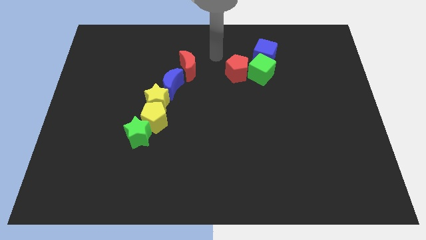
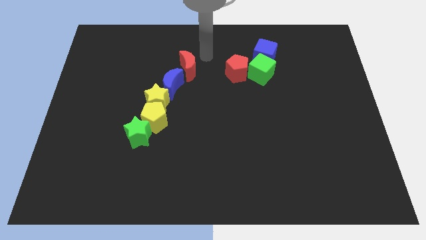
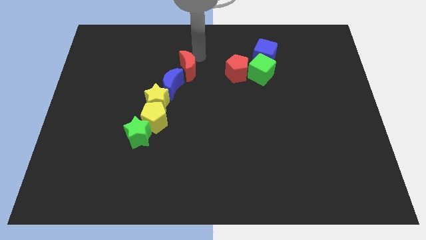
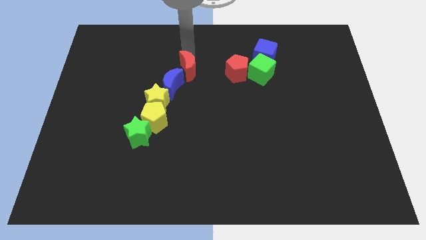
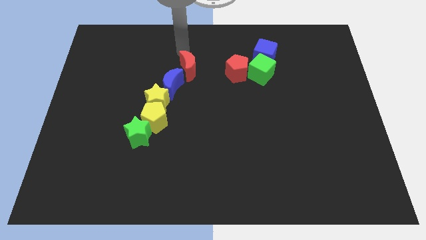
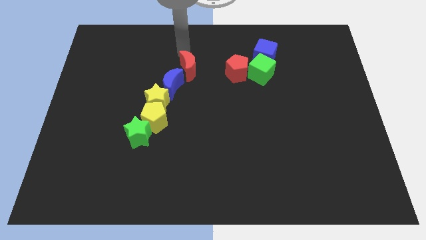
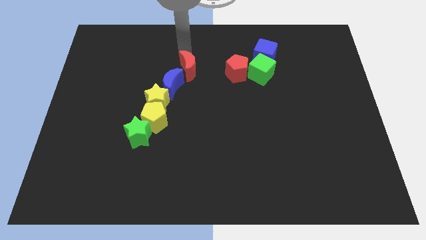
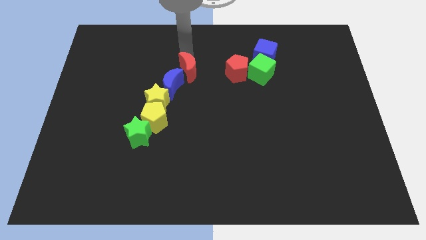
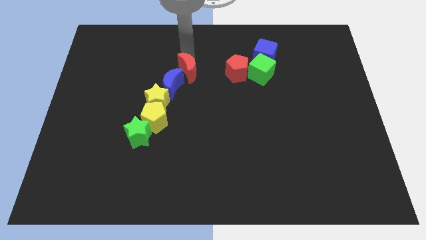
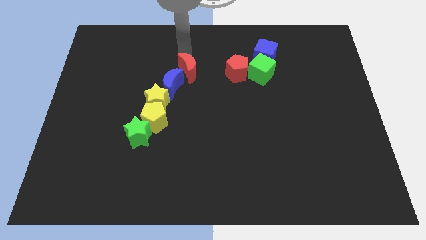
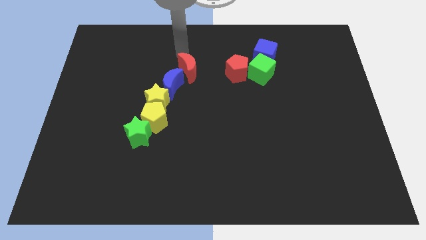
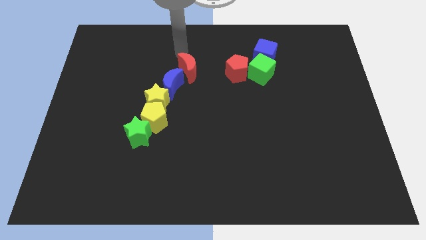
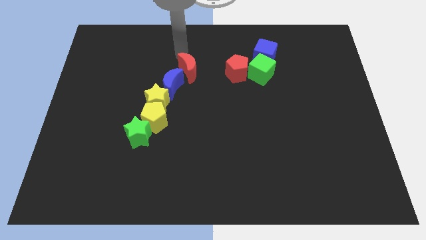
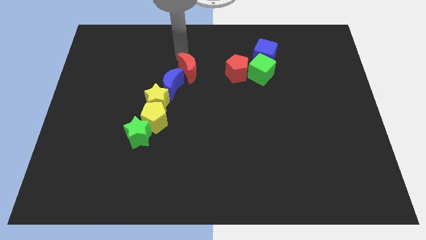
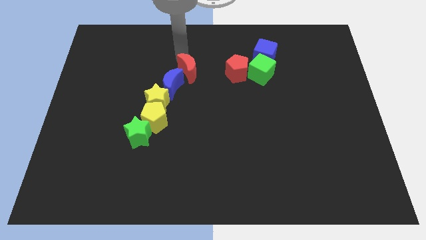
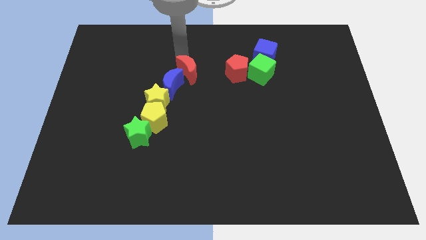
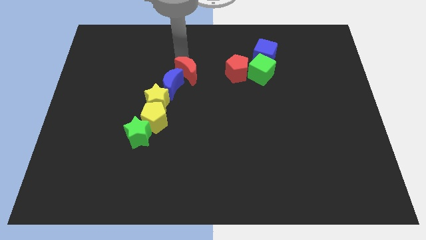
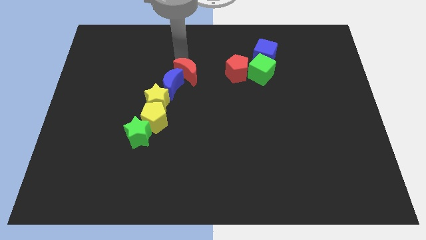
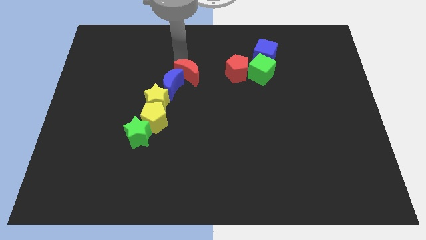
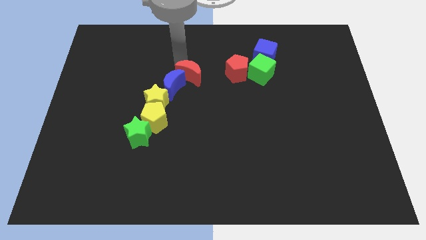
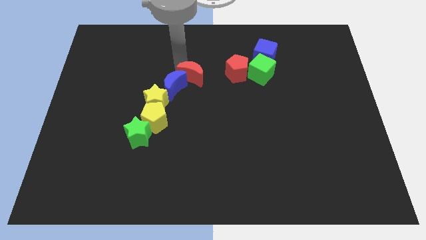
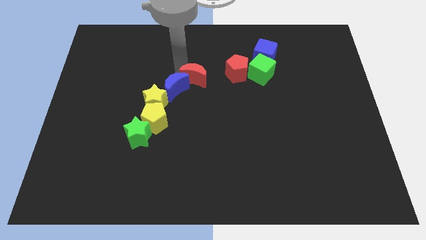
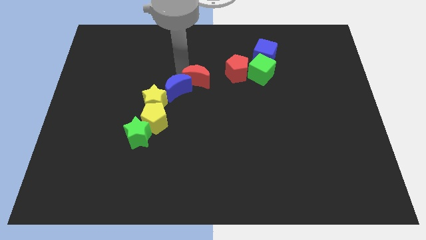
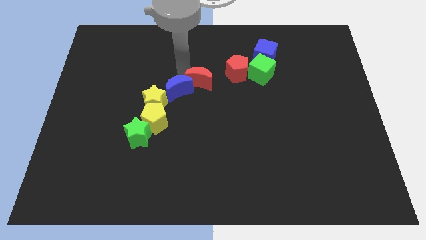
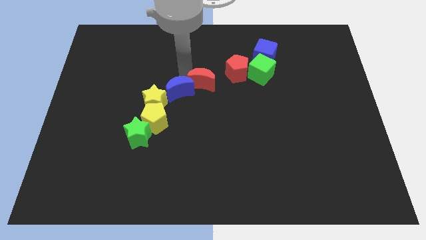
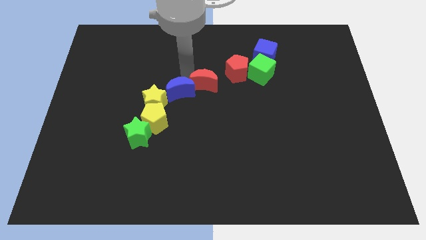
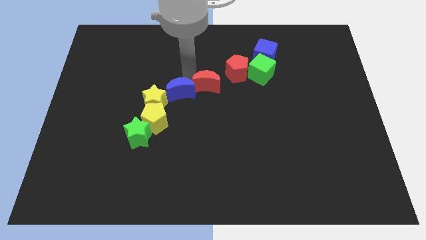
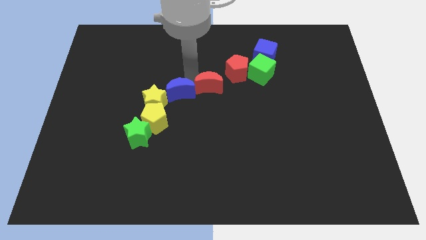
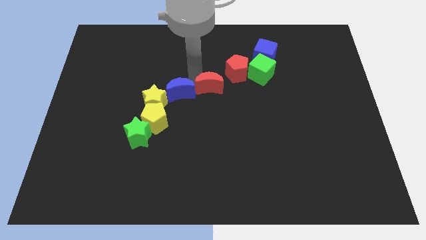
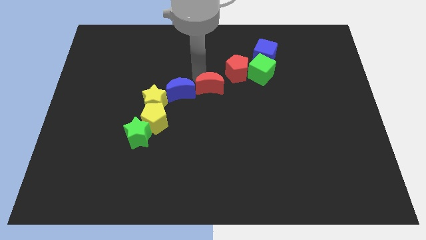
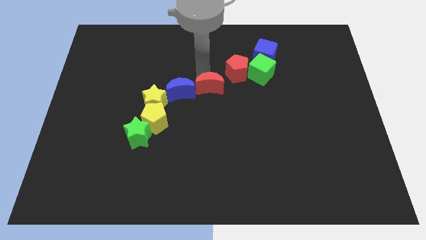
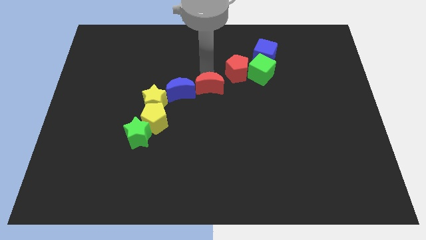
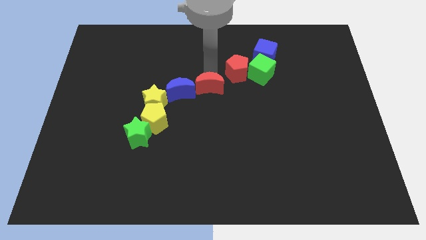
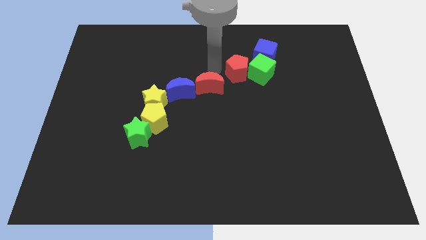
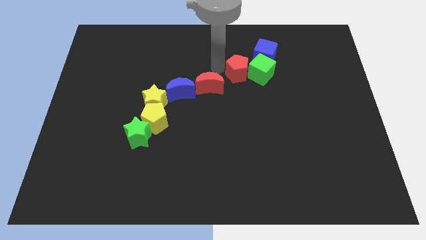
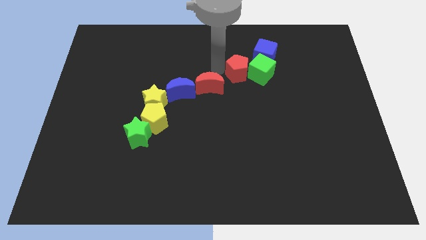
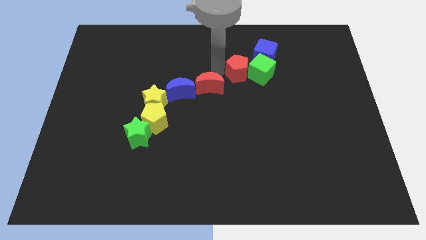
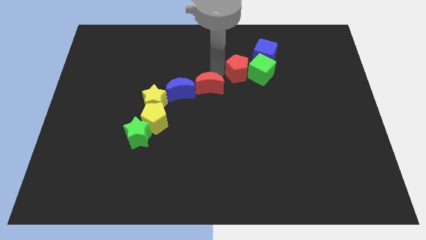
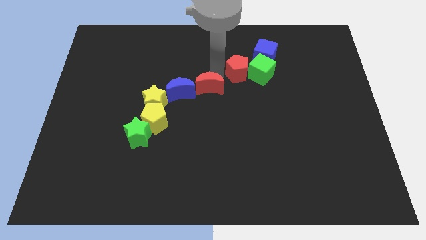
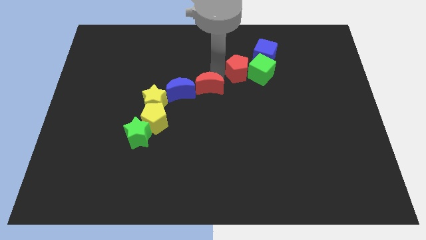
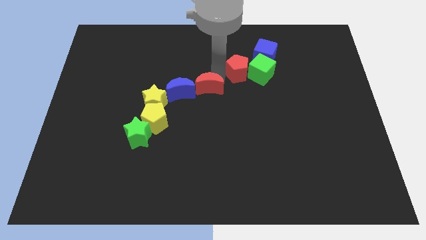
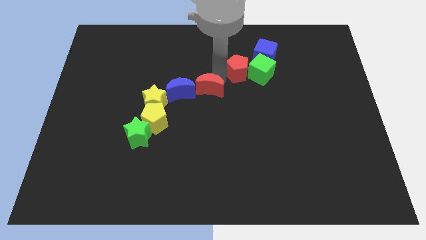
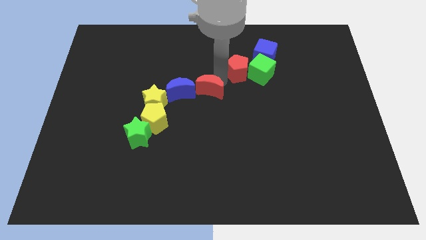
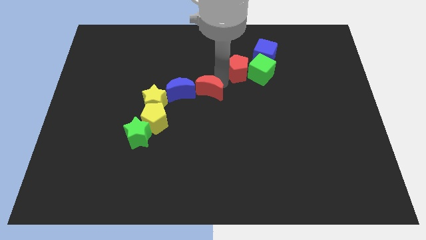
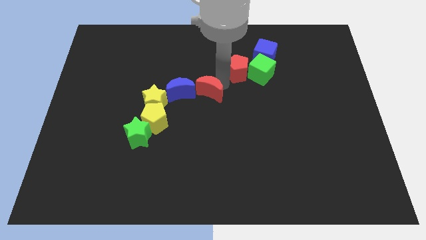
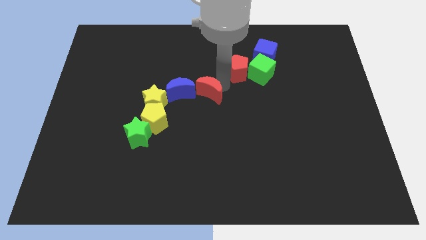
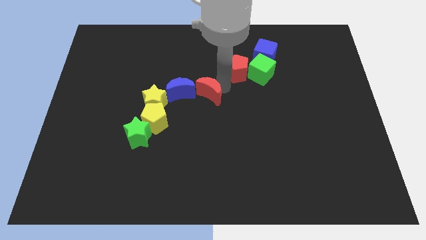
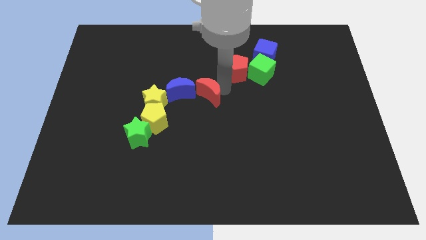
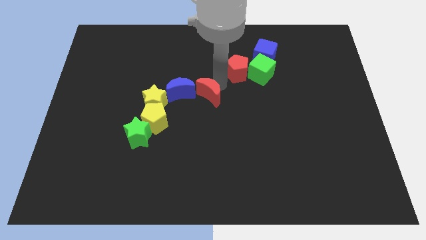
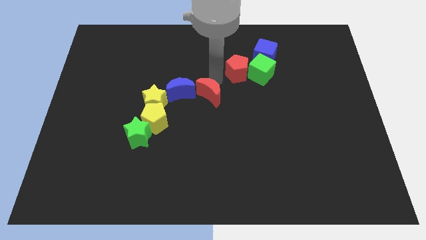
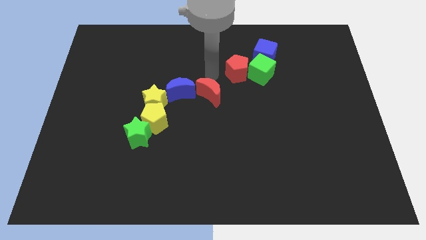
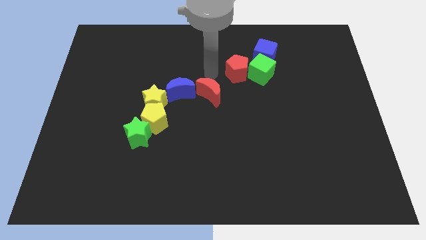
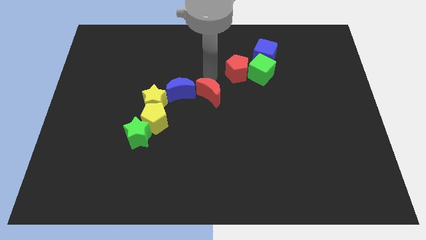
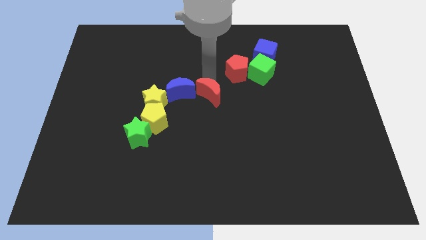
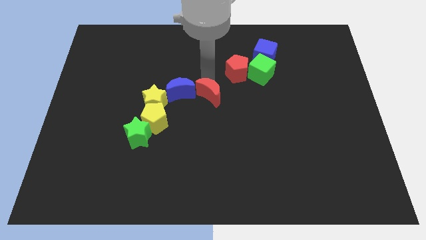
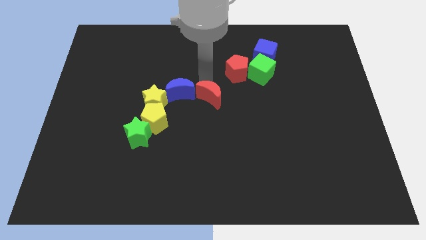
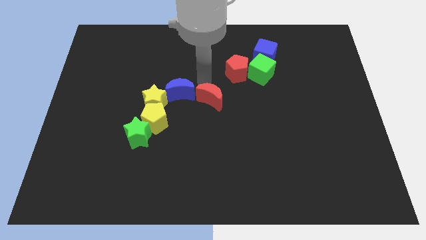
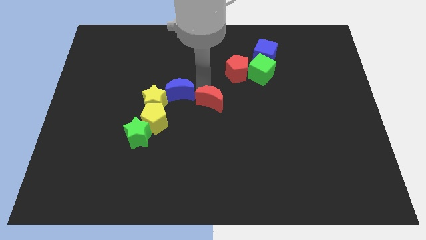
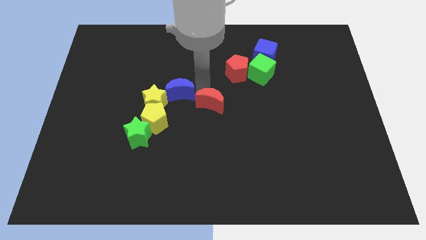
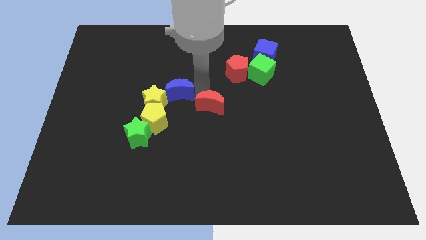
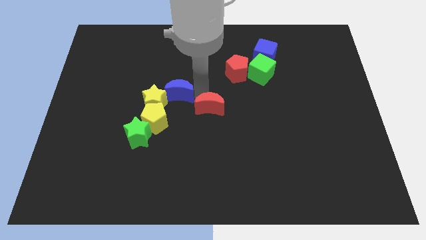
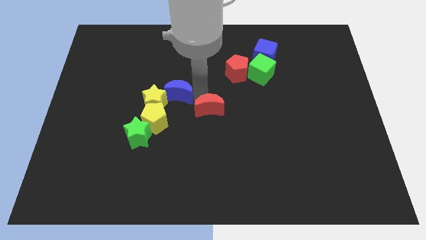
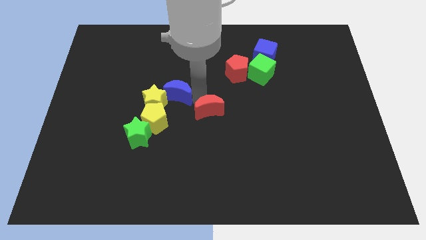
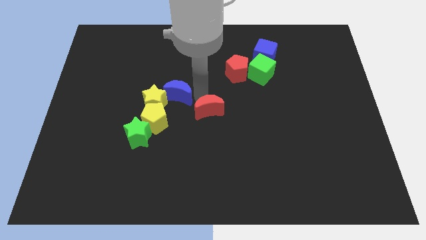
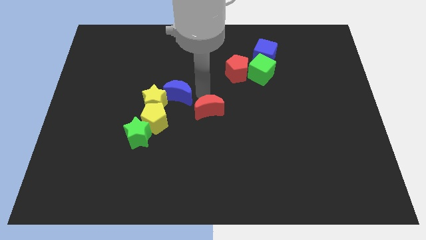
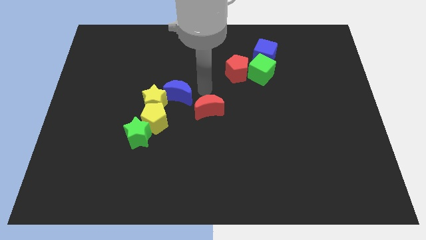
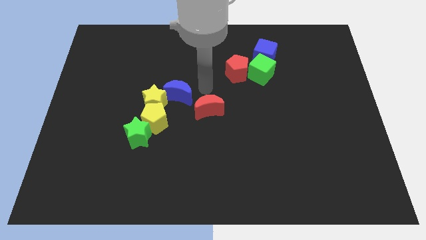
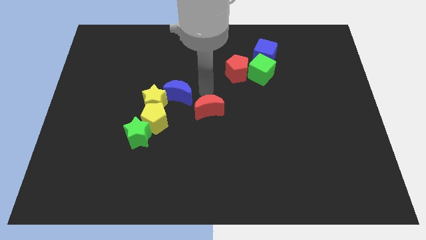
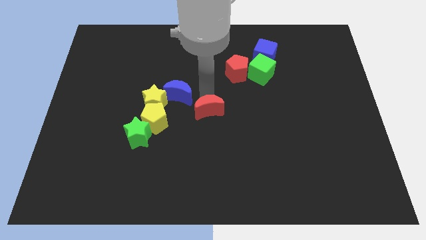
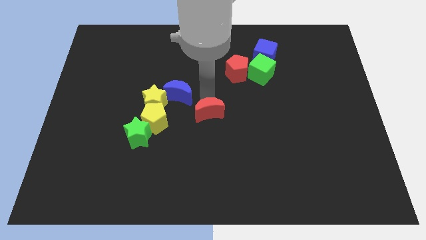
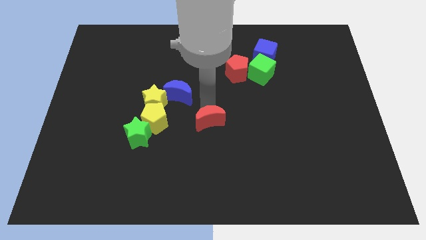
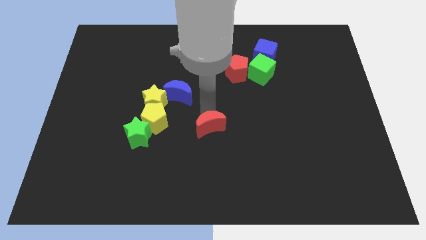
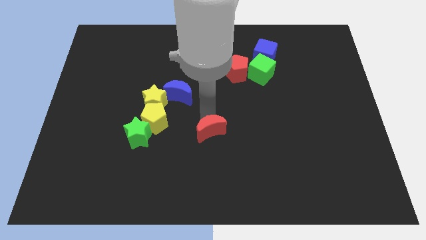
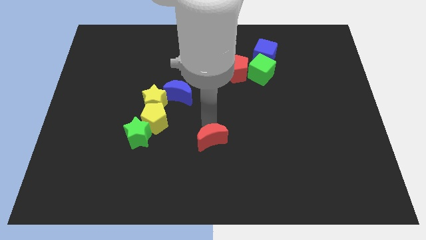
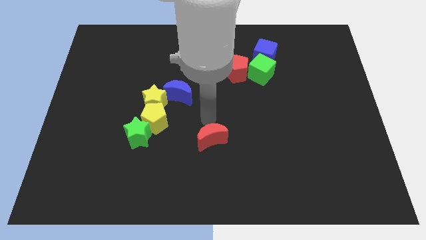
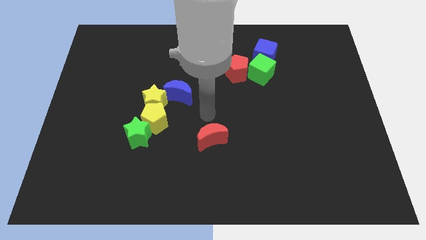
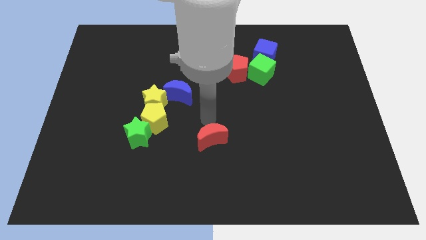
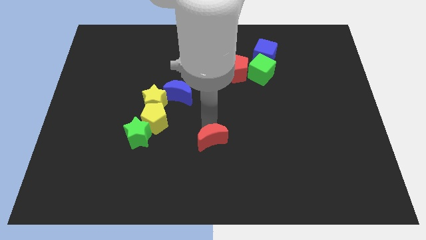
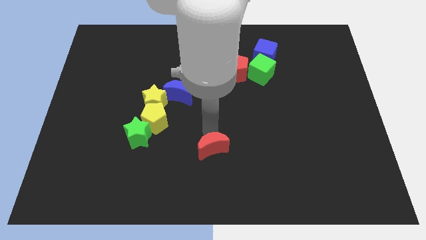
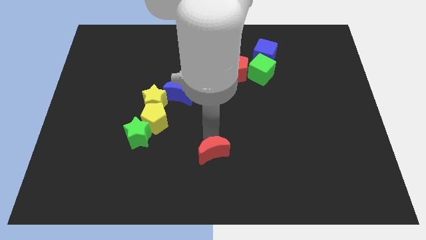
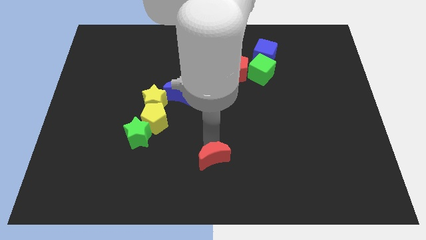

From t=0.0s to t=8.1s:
slide the red moon to the bottom
